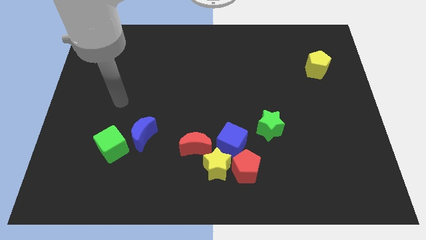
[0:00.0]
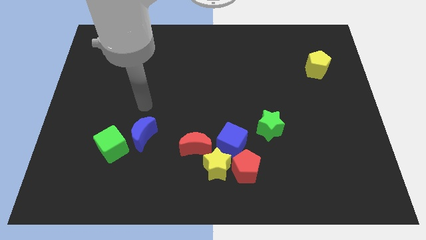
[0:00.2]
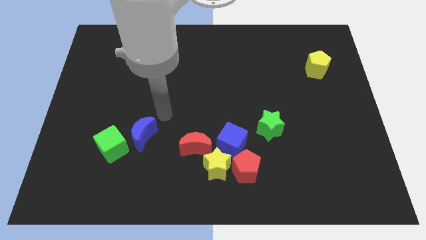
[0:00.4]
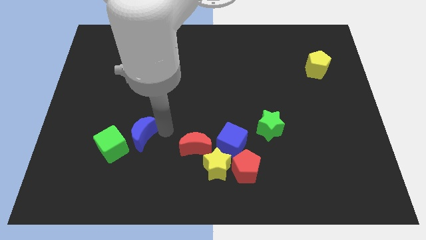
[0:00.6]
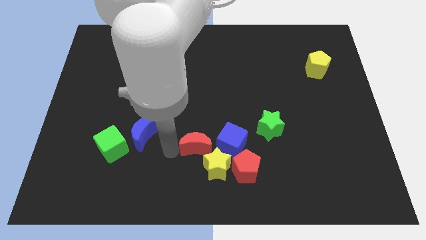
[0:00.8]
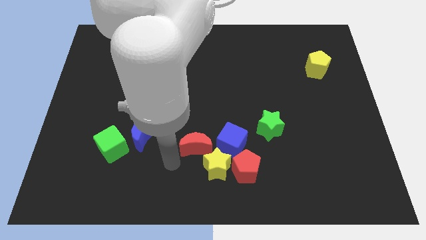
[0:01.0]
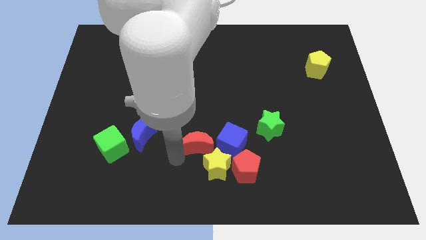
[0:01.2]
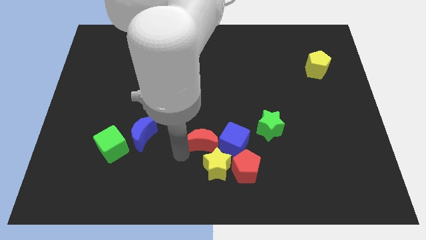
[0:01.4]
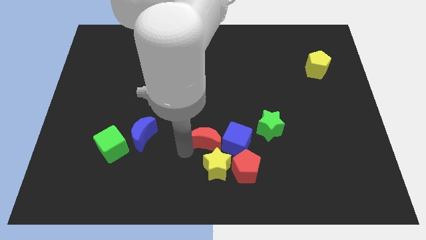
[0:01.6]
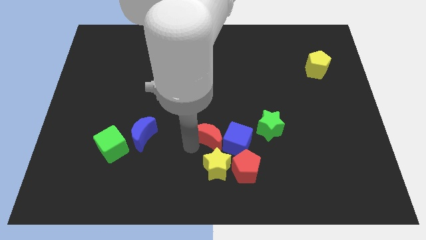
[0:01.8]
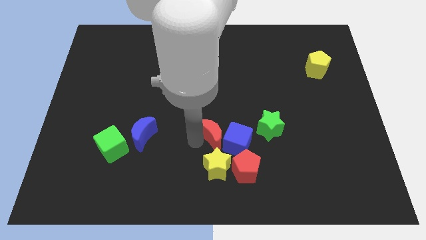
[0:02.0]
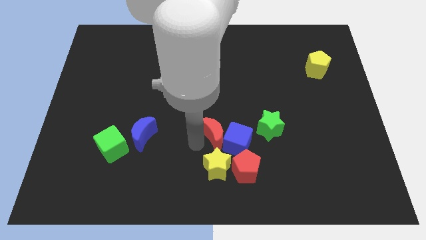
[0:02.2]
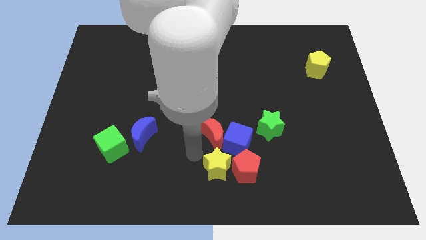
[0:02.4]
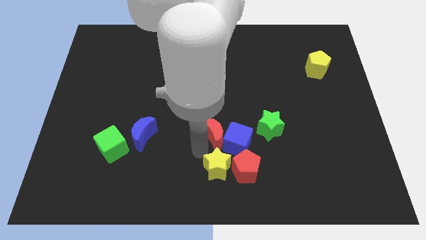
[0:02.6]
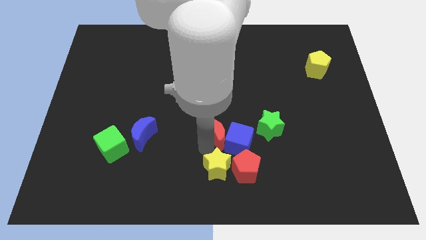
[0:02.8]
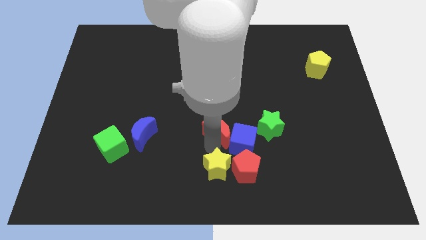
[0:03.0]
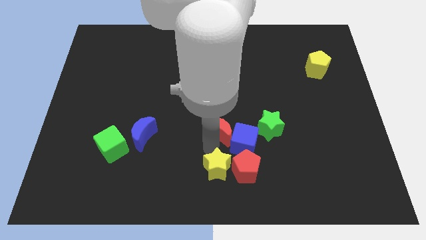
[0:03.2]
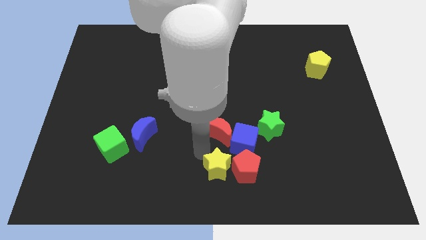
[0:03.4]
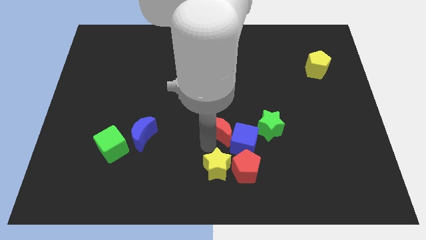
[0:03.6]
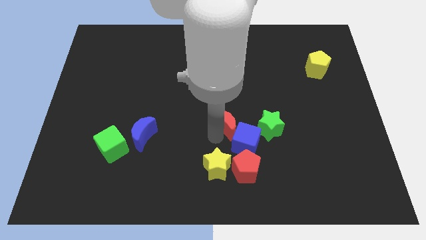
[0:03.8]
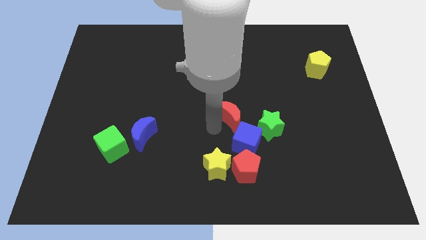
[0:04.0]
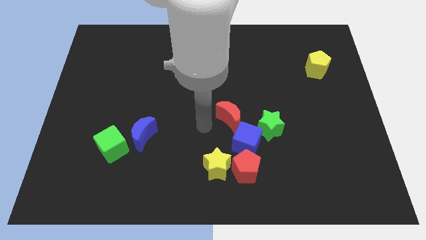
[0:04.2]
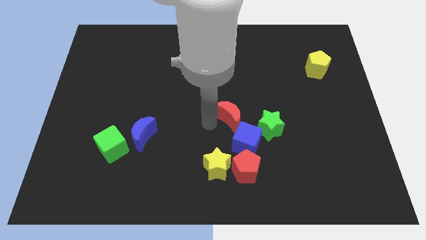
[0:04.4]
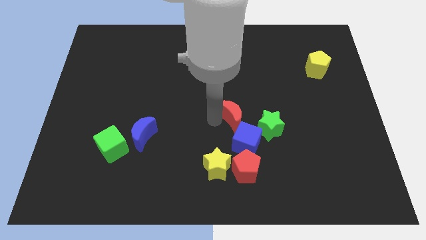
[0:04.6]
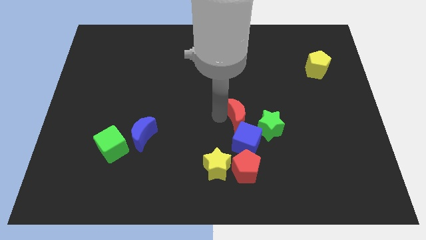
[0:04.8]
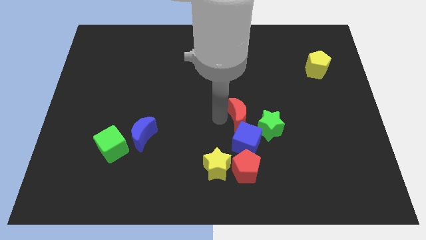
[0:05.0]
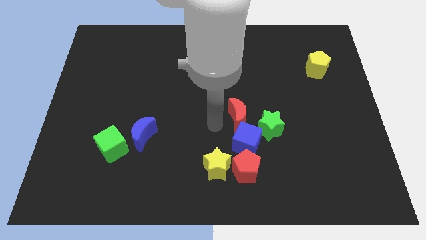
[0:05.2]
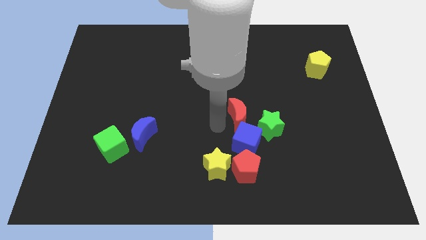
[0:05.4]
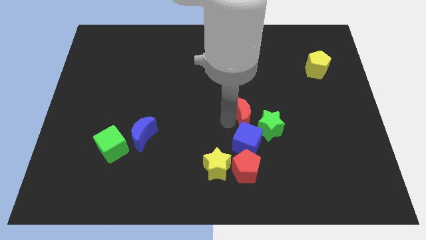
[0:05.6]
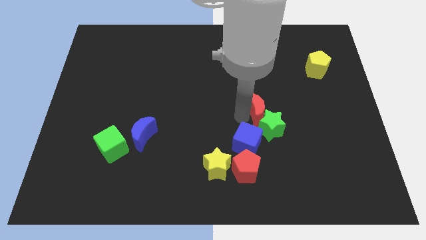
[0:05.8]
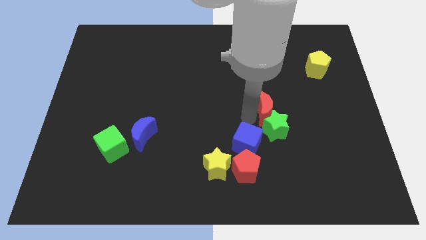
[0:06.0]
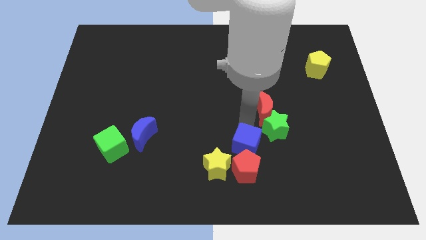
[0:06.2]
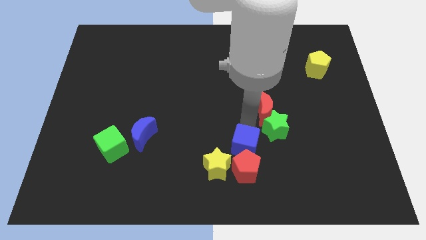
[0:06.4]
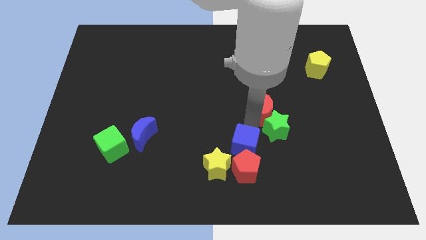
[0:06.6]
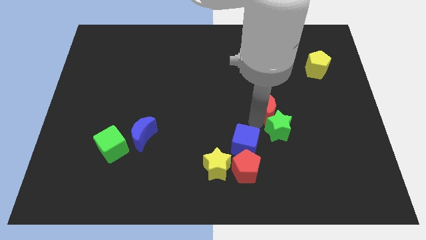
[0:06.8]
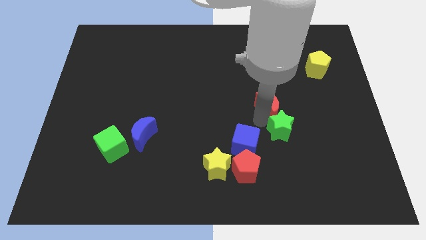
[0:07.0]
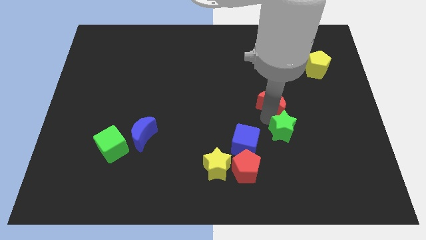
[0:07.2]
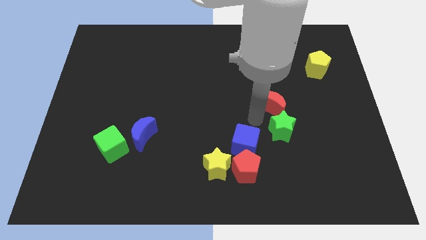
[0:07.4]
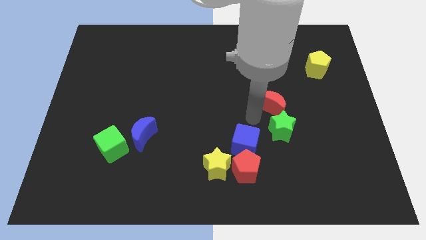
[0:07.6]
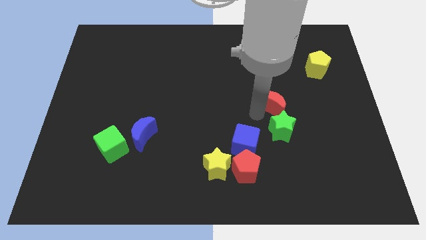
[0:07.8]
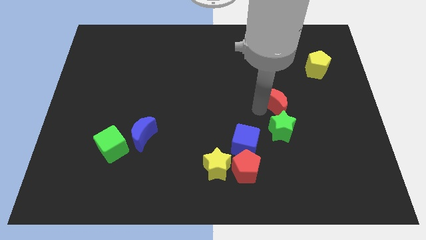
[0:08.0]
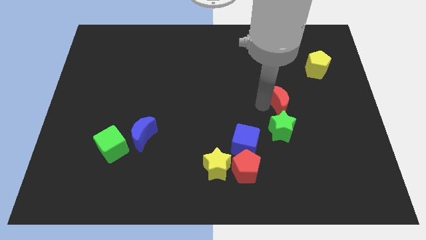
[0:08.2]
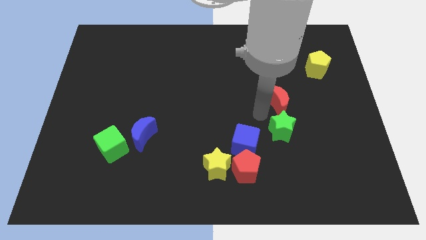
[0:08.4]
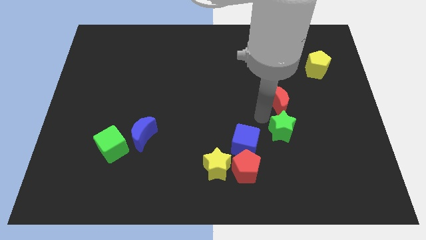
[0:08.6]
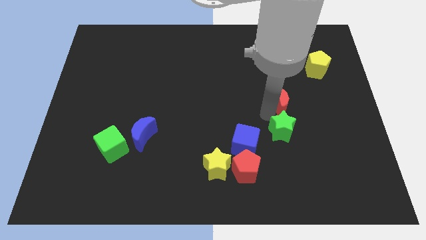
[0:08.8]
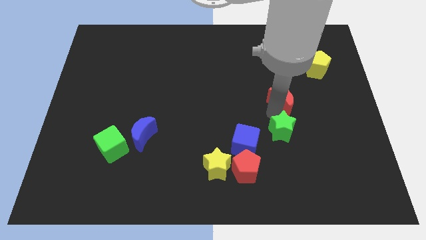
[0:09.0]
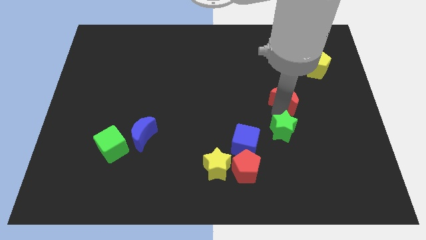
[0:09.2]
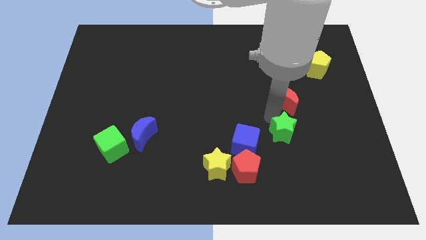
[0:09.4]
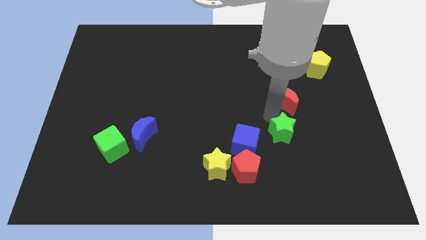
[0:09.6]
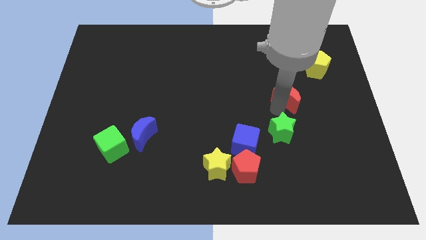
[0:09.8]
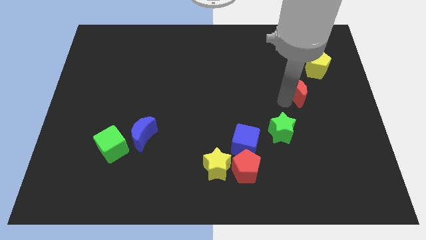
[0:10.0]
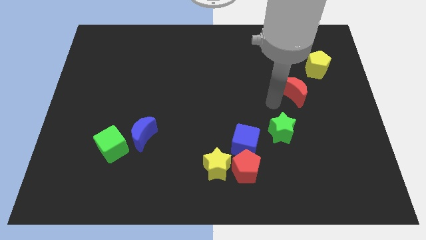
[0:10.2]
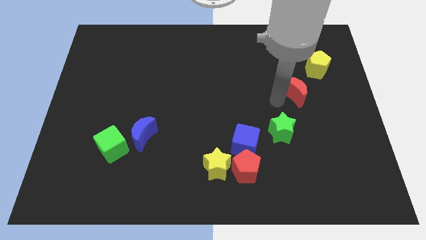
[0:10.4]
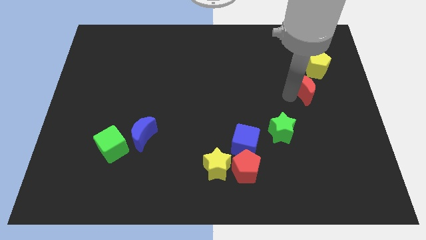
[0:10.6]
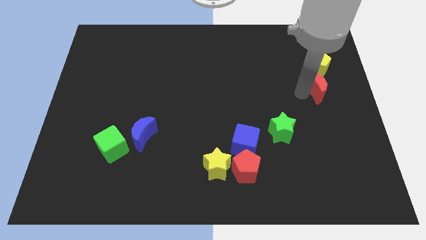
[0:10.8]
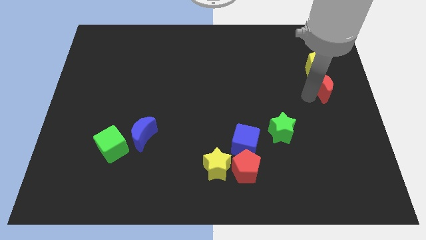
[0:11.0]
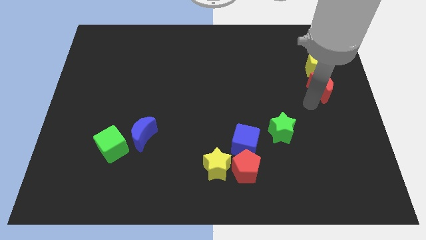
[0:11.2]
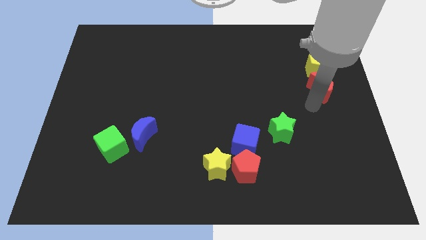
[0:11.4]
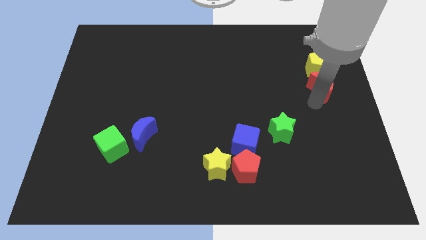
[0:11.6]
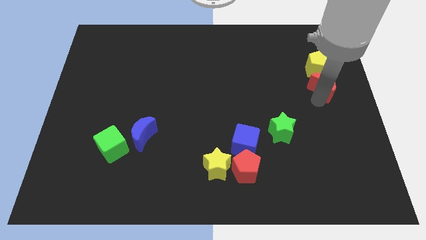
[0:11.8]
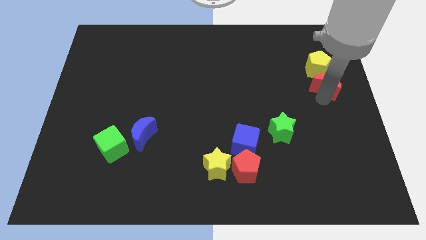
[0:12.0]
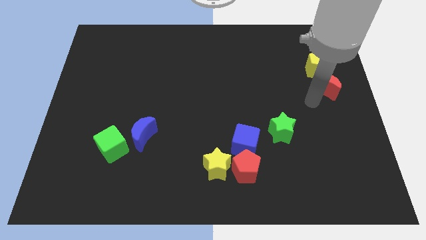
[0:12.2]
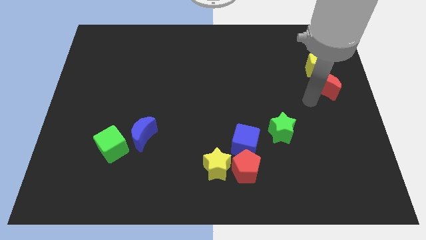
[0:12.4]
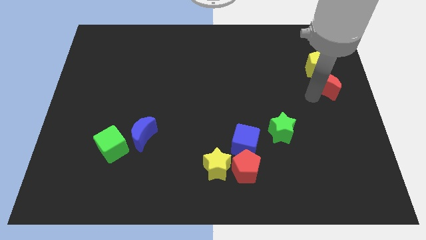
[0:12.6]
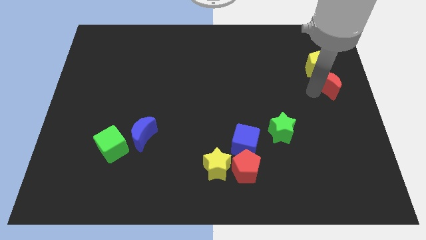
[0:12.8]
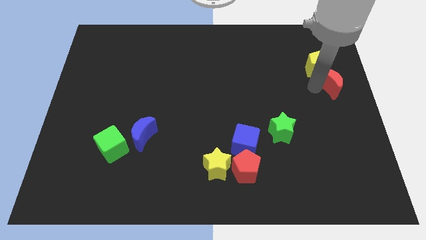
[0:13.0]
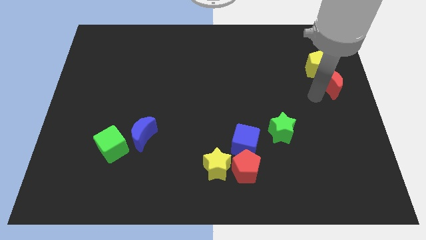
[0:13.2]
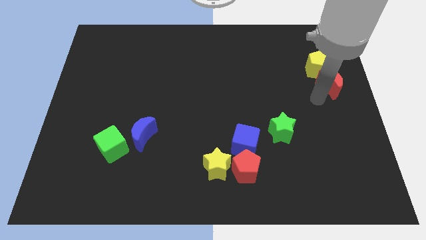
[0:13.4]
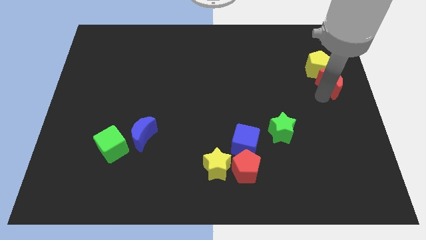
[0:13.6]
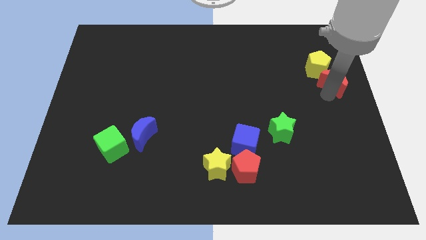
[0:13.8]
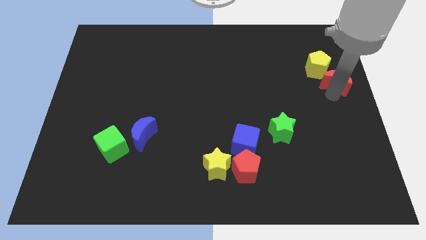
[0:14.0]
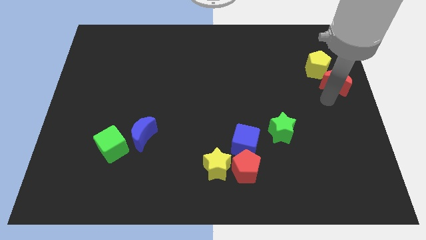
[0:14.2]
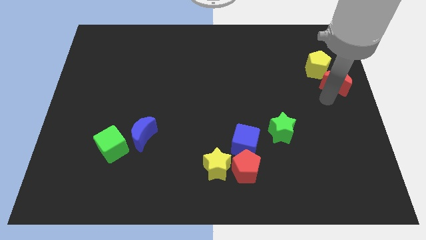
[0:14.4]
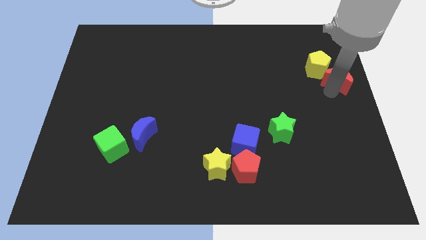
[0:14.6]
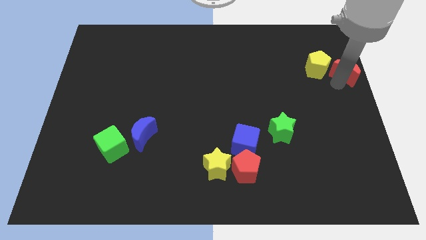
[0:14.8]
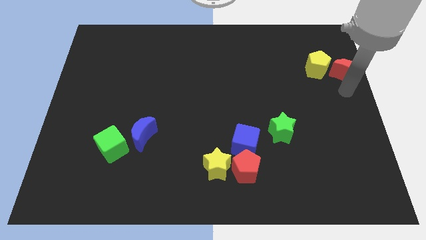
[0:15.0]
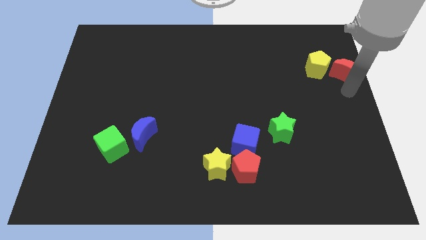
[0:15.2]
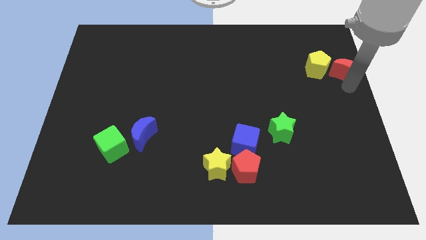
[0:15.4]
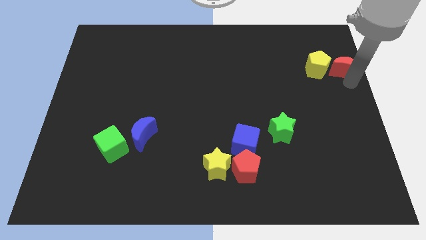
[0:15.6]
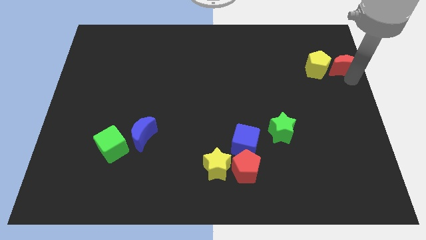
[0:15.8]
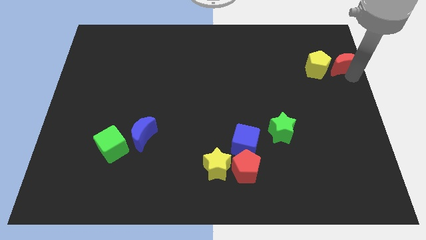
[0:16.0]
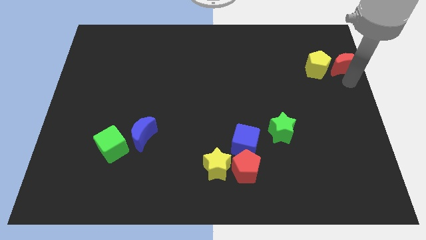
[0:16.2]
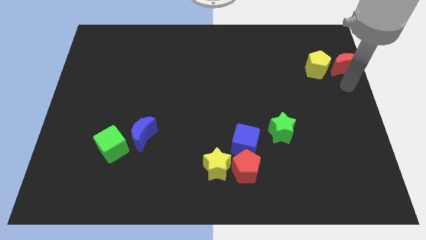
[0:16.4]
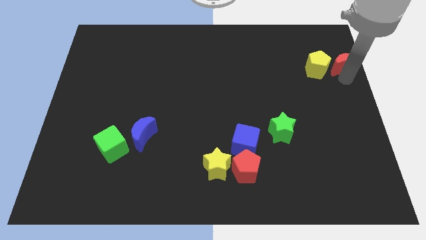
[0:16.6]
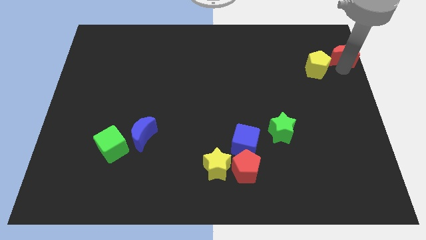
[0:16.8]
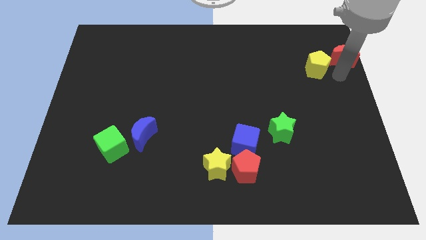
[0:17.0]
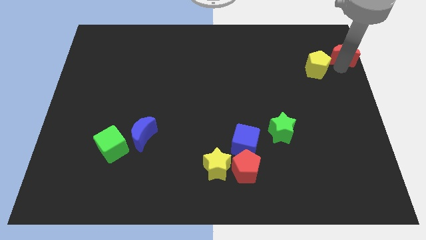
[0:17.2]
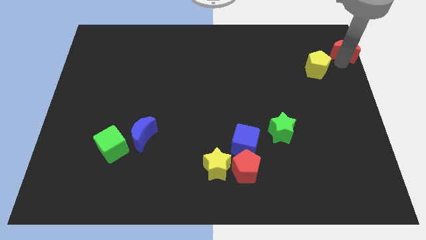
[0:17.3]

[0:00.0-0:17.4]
slide the red moon to the upper right corner
